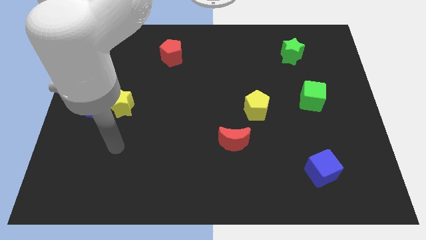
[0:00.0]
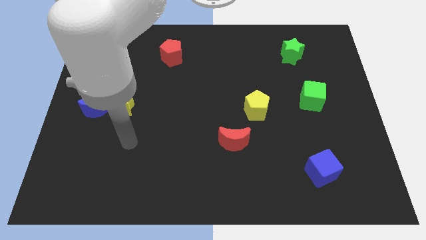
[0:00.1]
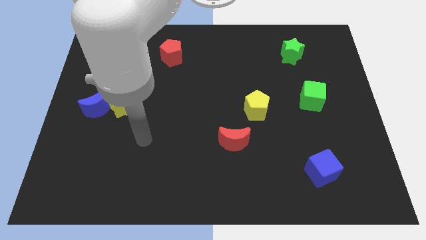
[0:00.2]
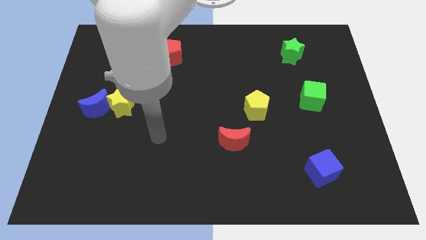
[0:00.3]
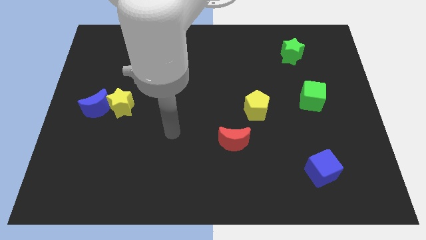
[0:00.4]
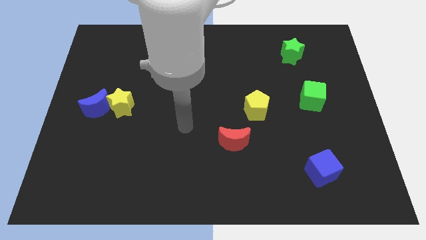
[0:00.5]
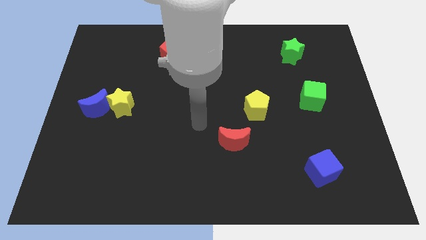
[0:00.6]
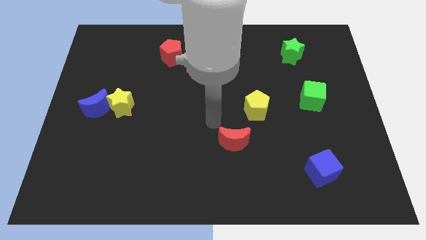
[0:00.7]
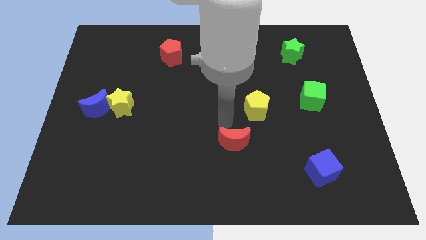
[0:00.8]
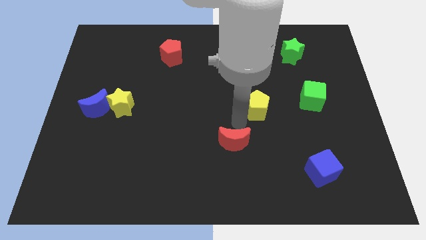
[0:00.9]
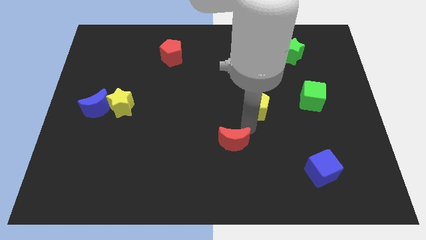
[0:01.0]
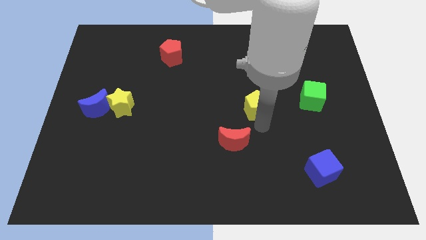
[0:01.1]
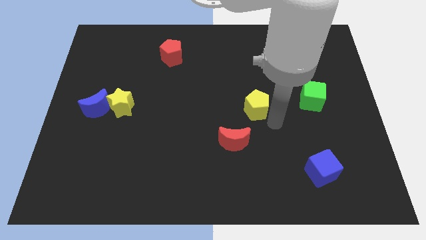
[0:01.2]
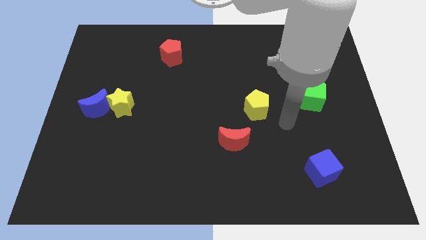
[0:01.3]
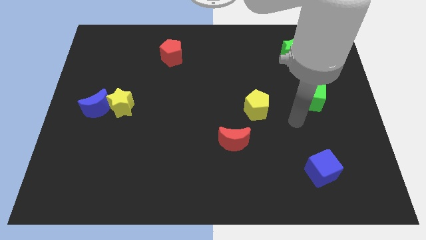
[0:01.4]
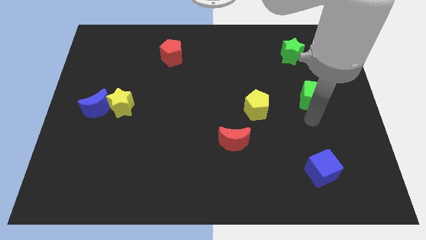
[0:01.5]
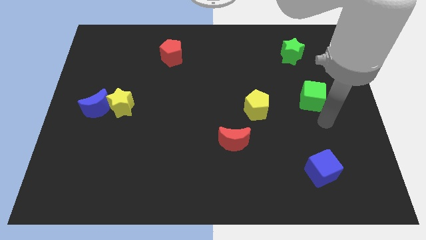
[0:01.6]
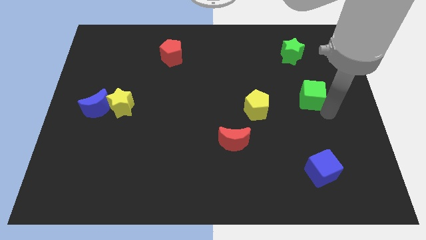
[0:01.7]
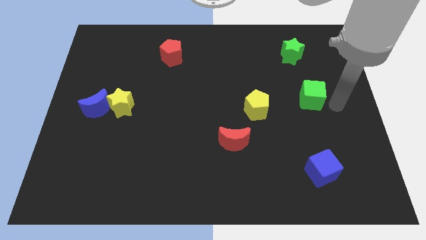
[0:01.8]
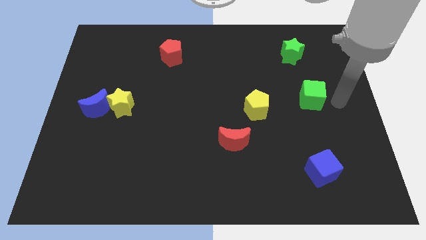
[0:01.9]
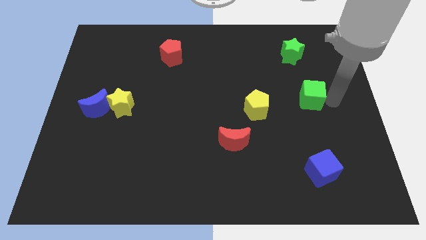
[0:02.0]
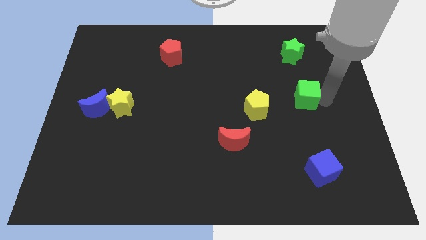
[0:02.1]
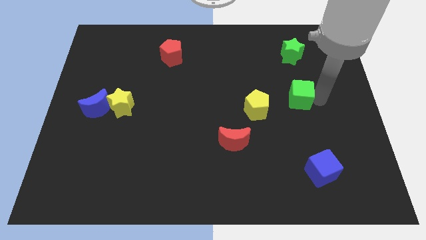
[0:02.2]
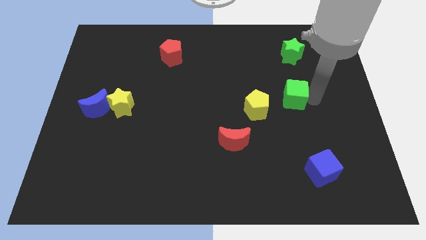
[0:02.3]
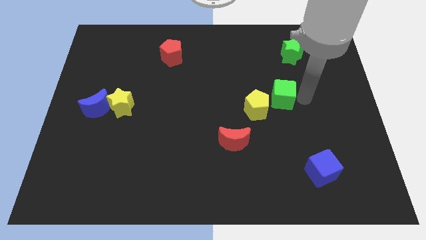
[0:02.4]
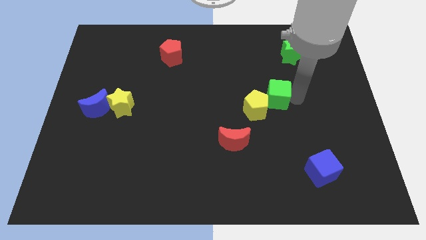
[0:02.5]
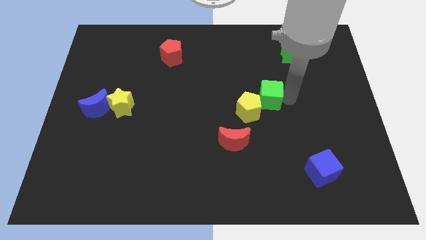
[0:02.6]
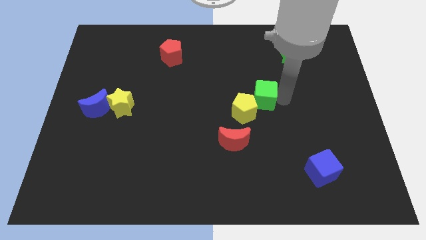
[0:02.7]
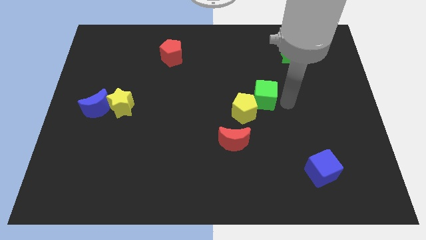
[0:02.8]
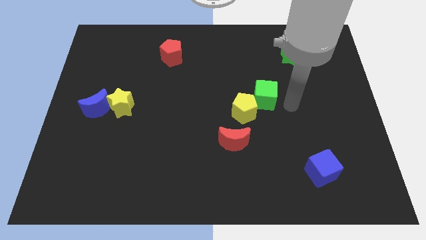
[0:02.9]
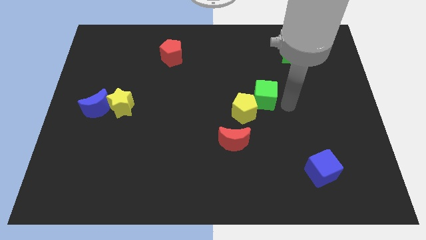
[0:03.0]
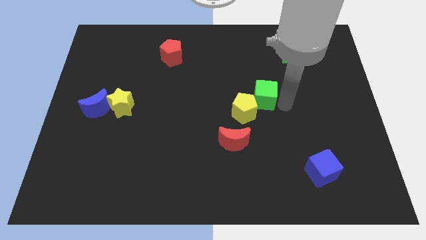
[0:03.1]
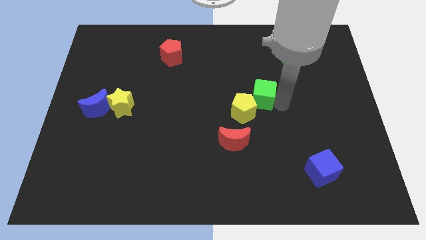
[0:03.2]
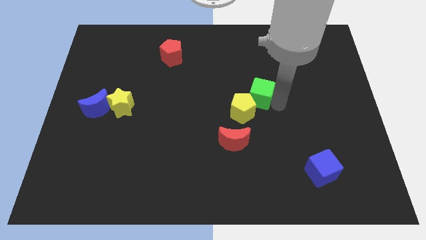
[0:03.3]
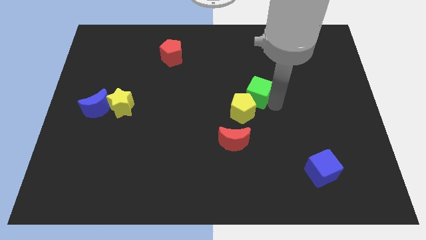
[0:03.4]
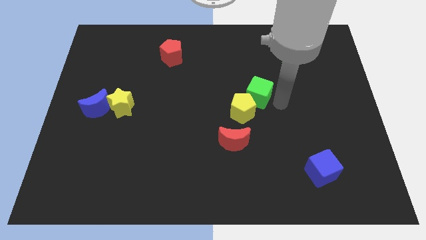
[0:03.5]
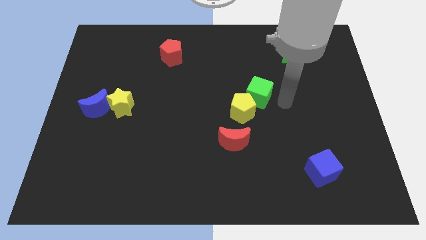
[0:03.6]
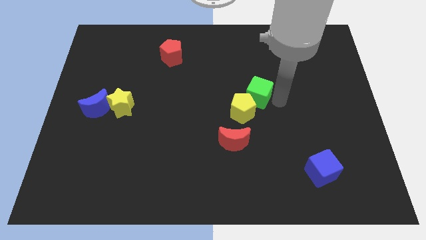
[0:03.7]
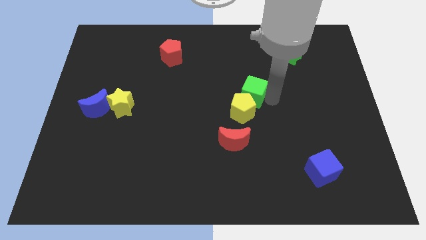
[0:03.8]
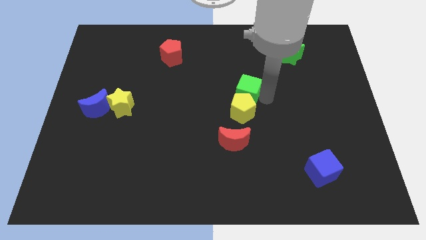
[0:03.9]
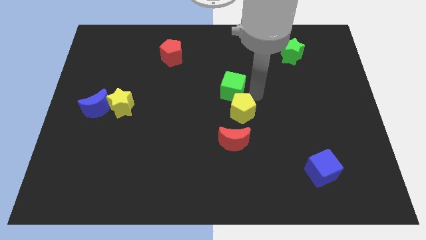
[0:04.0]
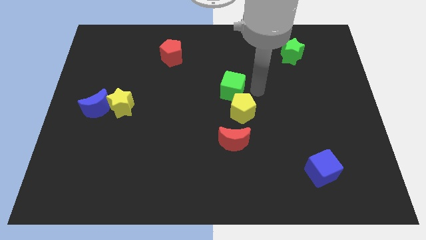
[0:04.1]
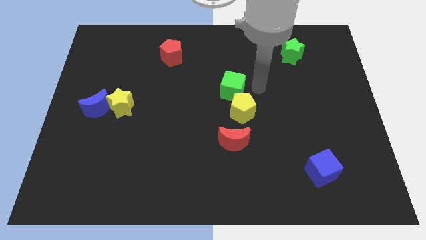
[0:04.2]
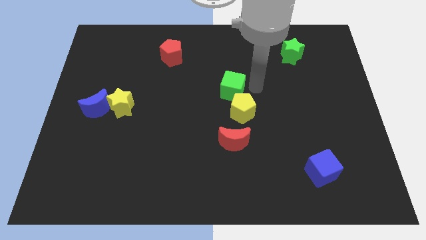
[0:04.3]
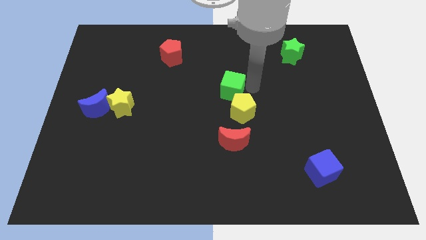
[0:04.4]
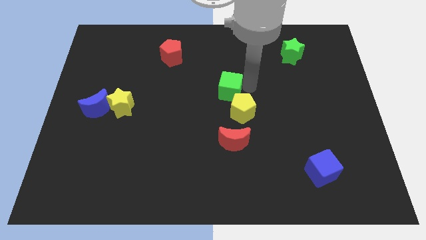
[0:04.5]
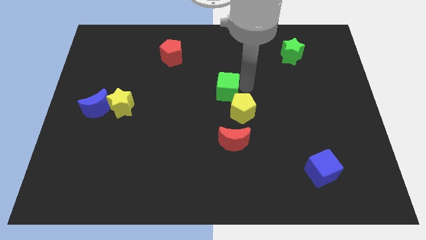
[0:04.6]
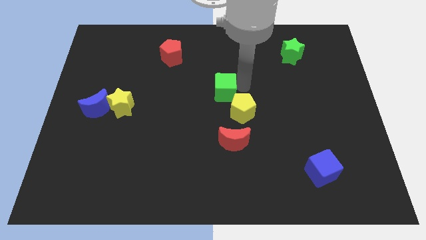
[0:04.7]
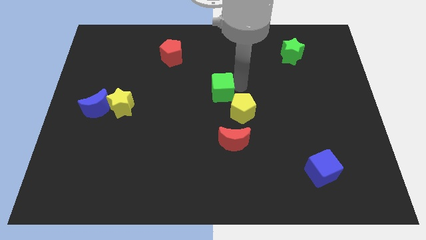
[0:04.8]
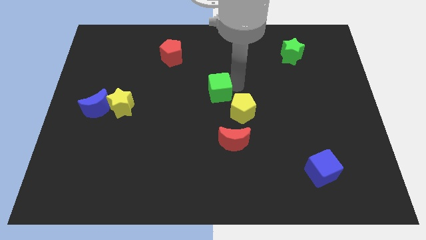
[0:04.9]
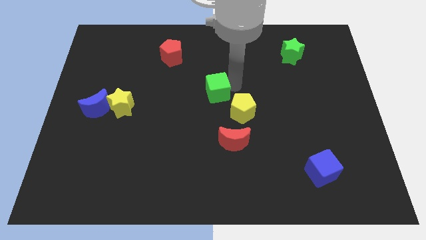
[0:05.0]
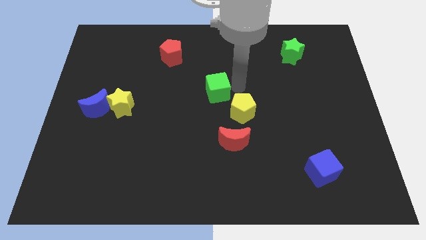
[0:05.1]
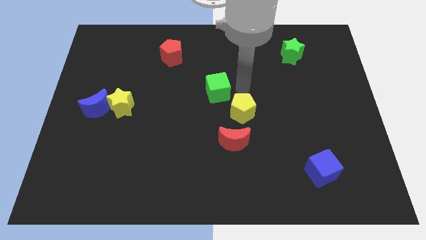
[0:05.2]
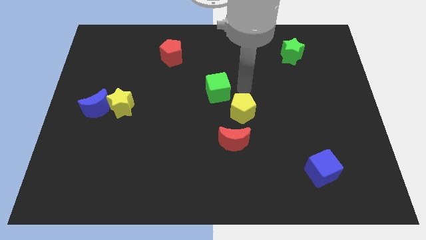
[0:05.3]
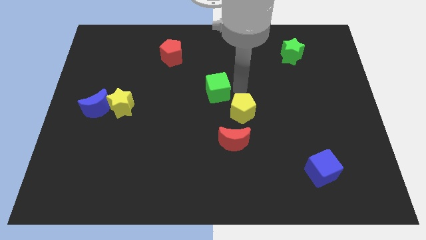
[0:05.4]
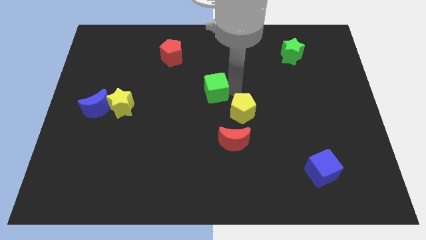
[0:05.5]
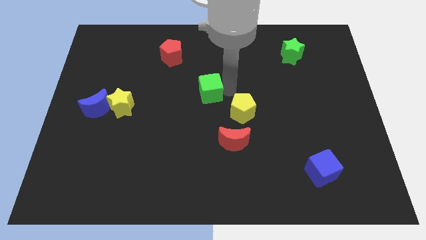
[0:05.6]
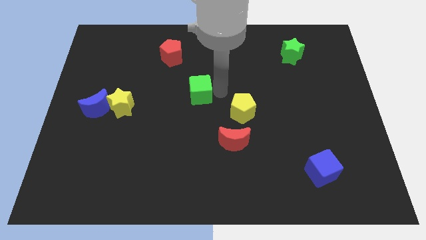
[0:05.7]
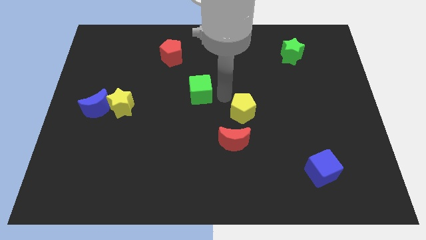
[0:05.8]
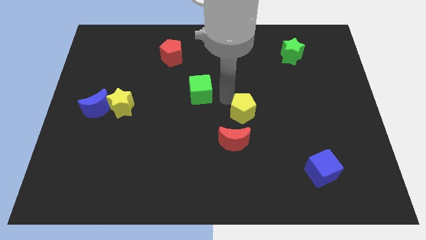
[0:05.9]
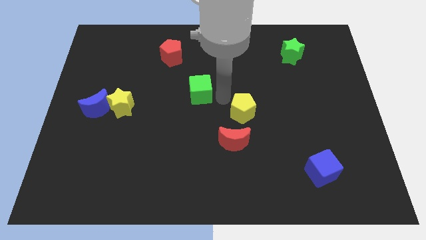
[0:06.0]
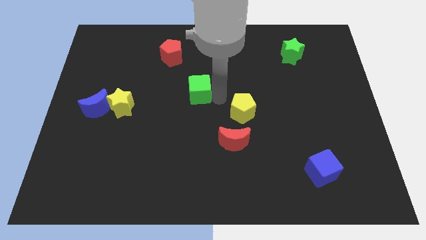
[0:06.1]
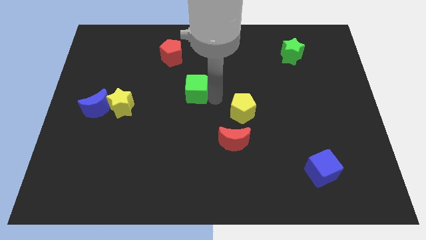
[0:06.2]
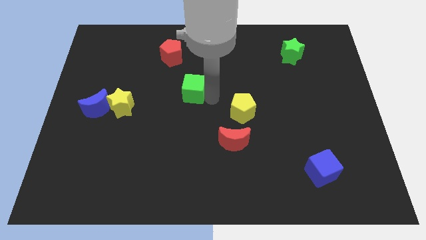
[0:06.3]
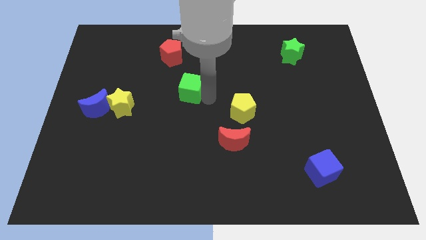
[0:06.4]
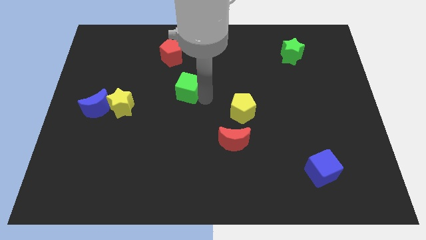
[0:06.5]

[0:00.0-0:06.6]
push the green cube to the bottom of the red pentagon
